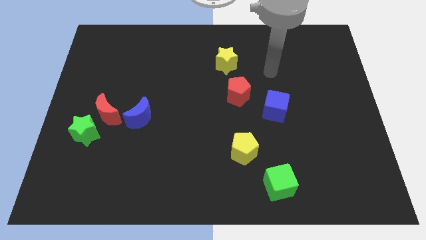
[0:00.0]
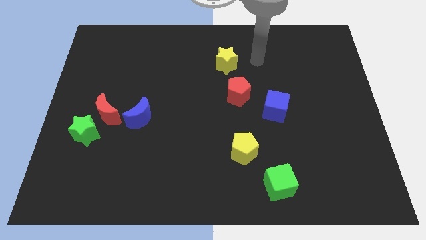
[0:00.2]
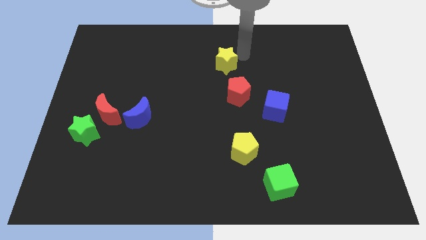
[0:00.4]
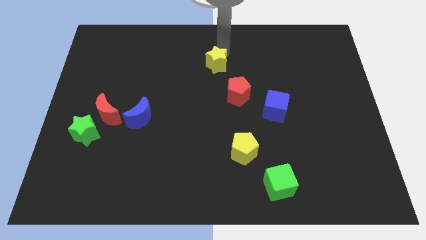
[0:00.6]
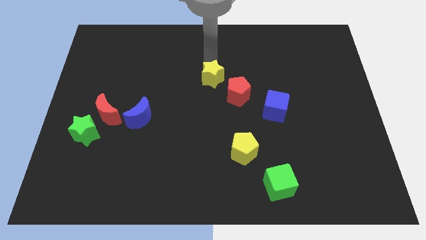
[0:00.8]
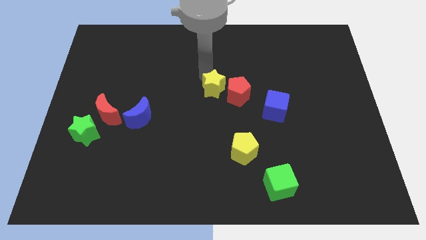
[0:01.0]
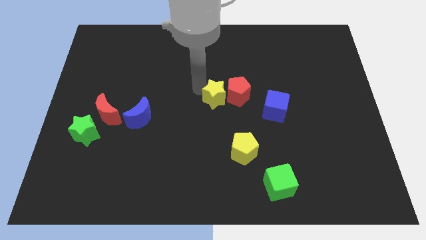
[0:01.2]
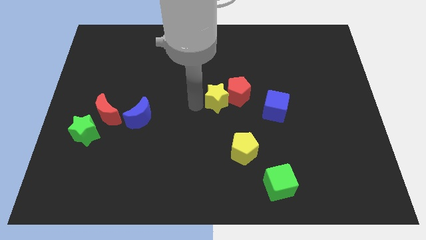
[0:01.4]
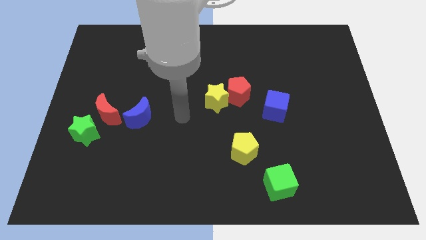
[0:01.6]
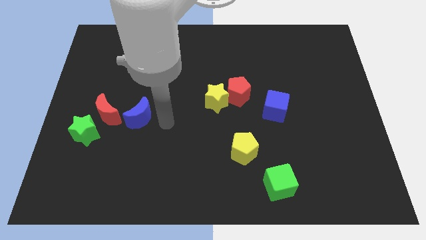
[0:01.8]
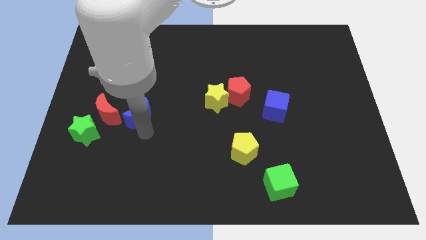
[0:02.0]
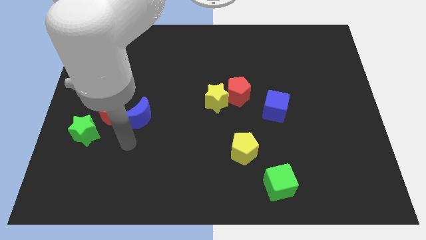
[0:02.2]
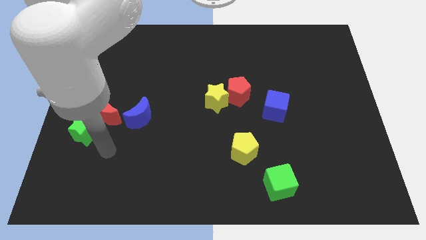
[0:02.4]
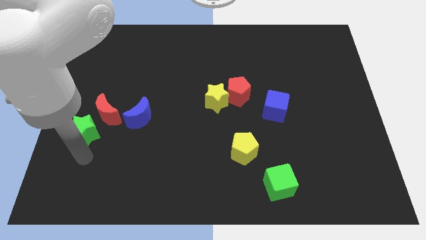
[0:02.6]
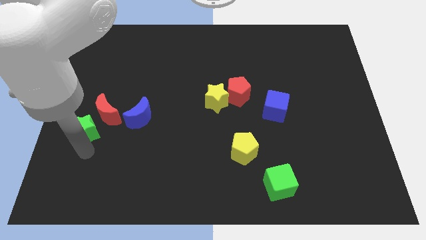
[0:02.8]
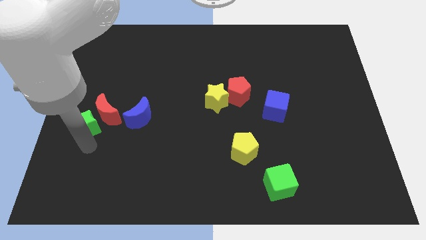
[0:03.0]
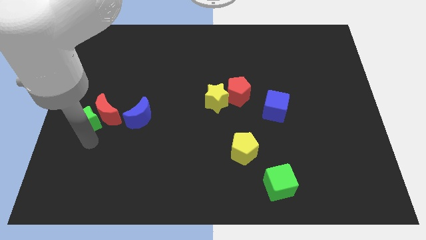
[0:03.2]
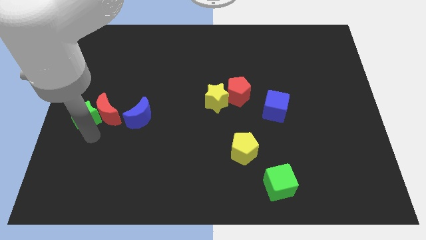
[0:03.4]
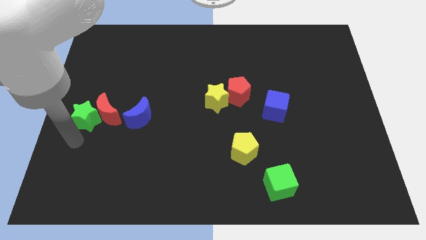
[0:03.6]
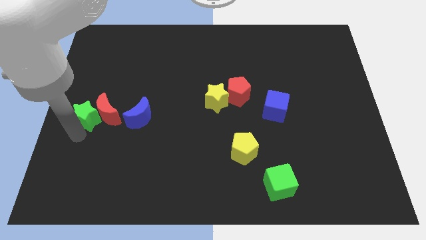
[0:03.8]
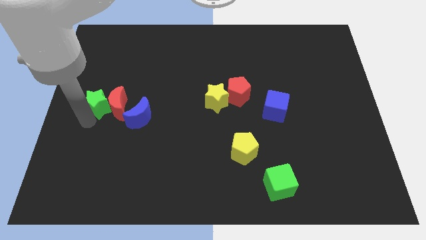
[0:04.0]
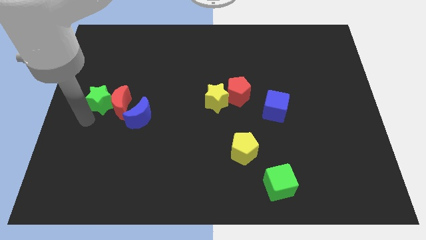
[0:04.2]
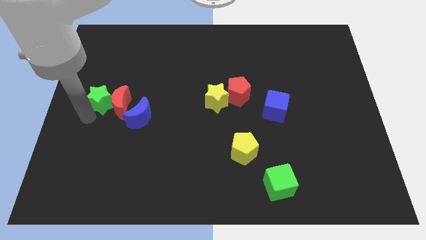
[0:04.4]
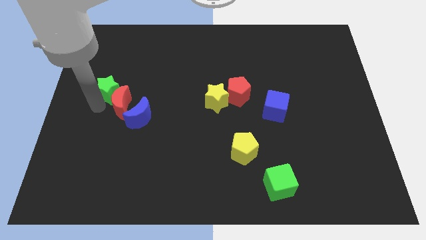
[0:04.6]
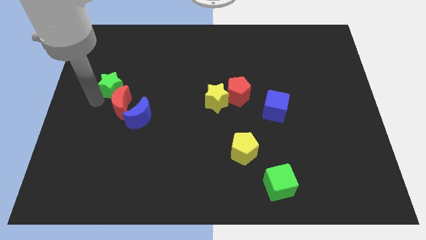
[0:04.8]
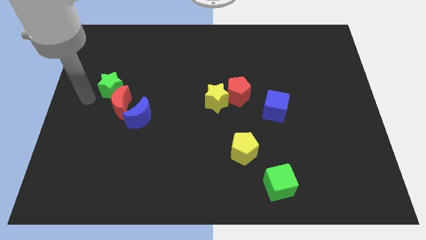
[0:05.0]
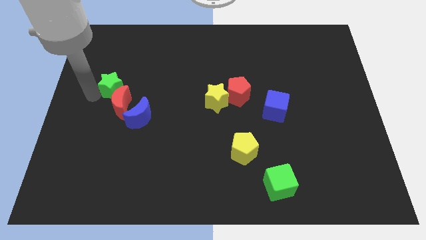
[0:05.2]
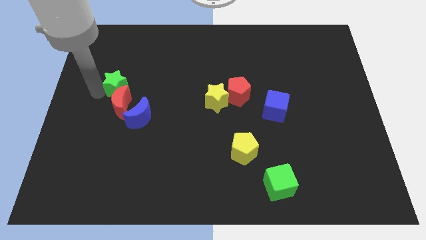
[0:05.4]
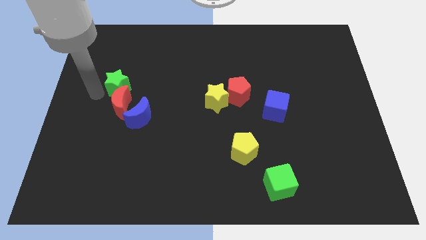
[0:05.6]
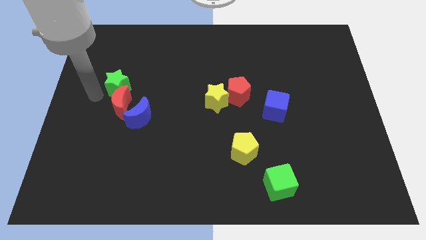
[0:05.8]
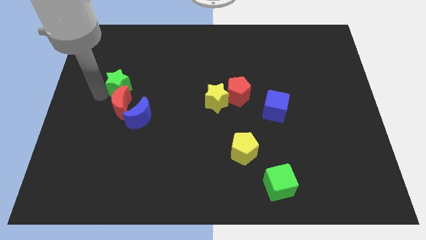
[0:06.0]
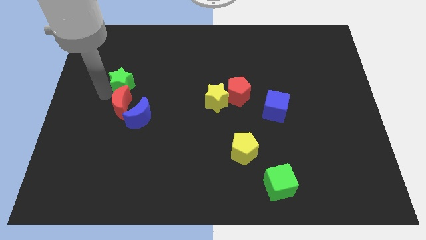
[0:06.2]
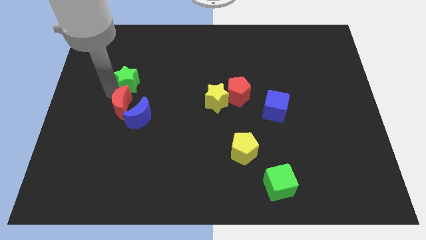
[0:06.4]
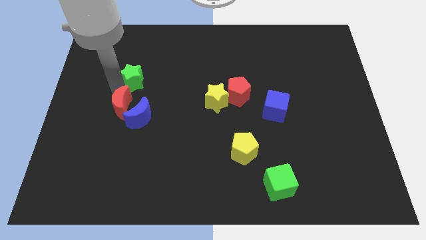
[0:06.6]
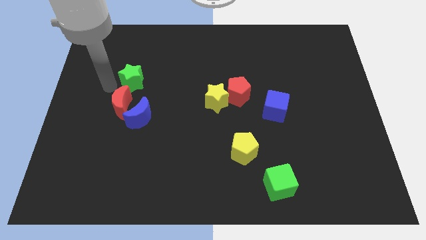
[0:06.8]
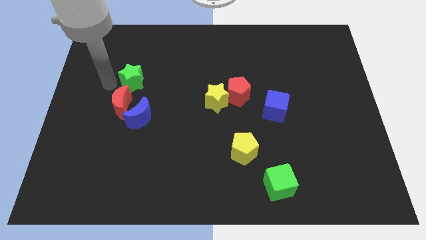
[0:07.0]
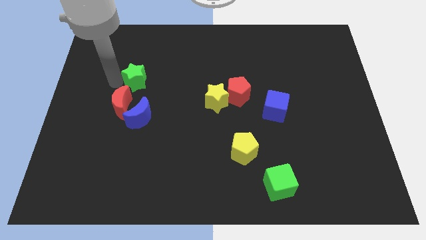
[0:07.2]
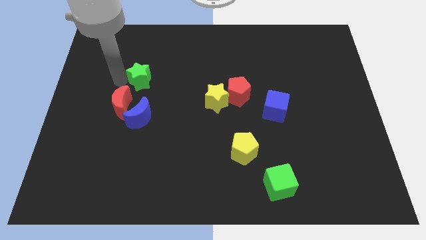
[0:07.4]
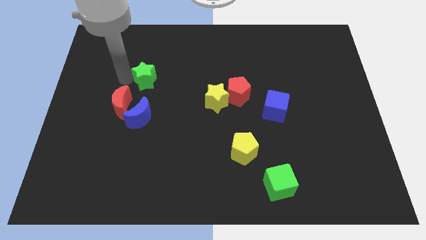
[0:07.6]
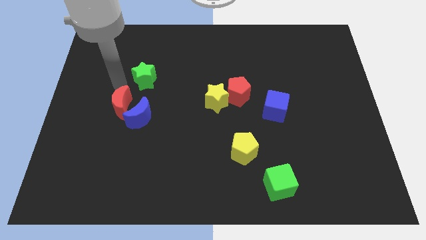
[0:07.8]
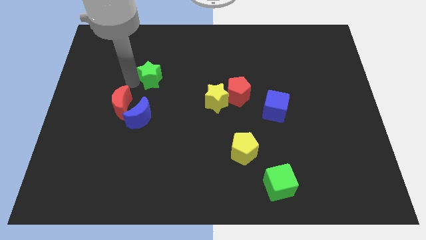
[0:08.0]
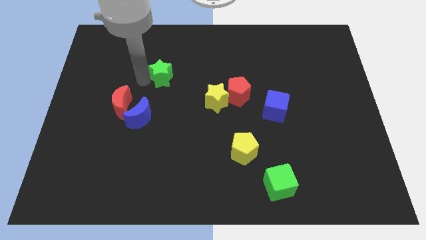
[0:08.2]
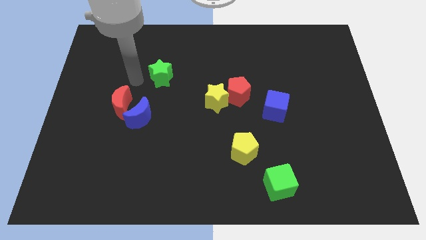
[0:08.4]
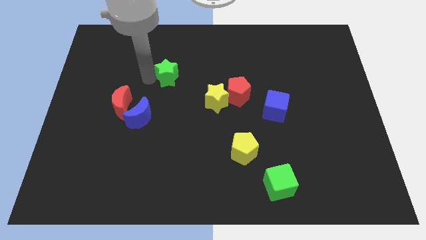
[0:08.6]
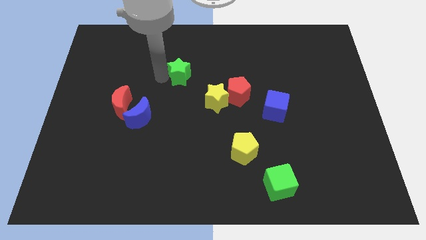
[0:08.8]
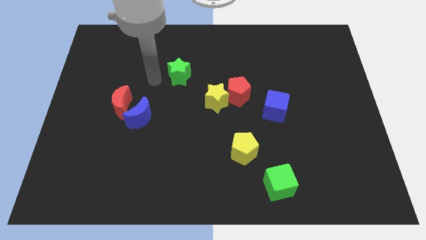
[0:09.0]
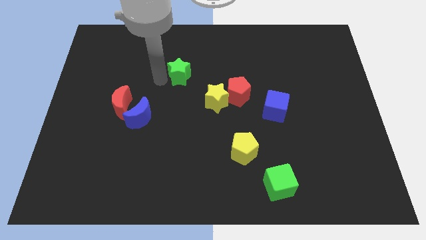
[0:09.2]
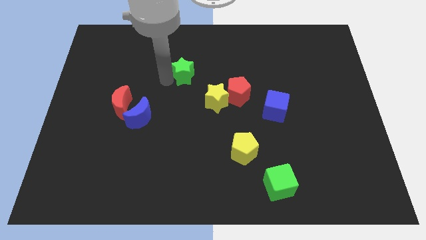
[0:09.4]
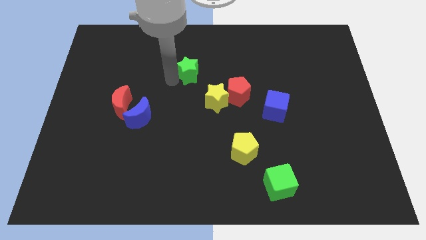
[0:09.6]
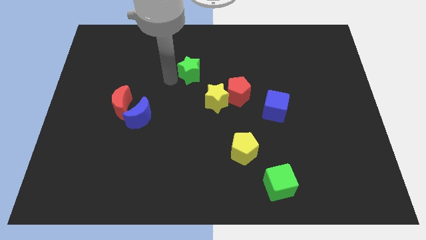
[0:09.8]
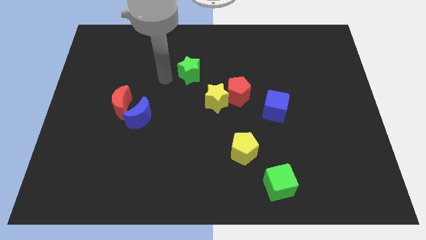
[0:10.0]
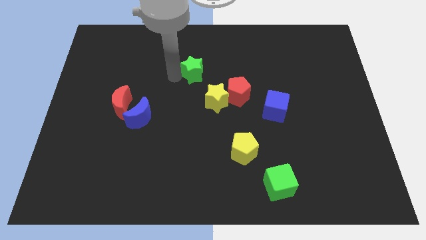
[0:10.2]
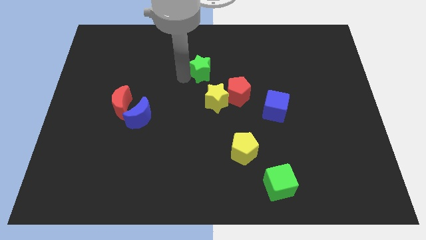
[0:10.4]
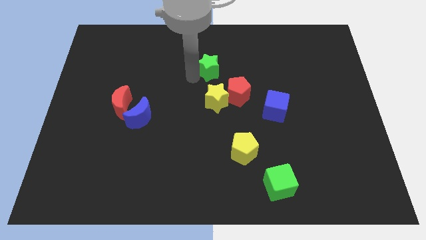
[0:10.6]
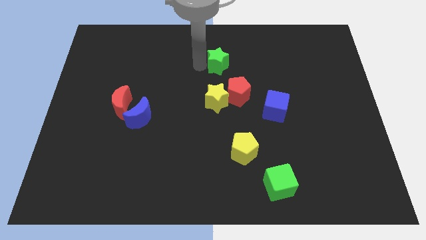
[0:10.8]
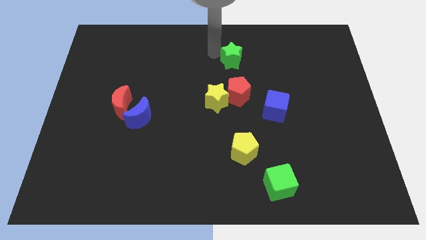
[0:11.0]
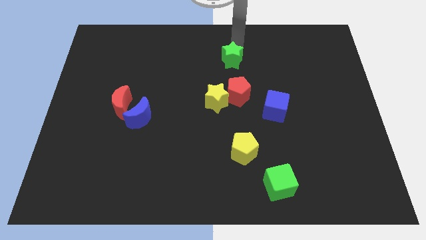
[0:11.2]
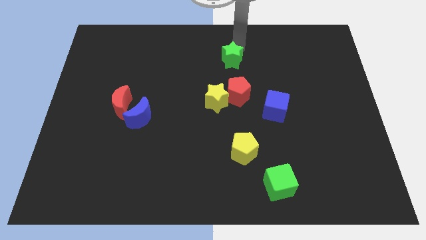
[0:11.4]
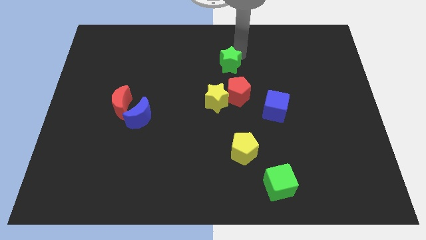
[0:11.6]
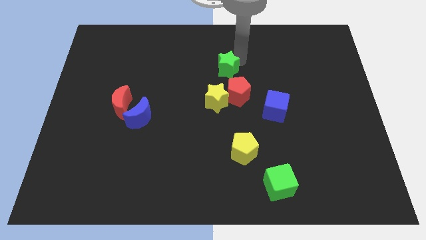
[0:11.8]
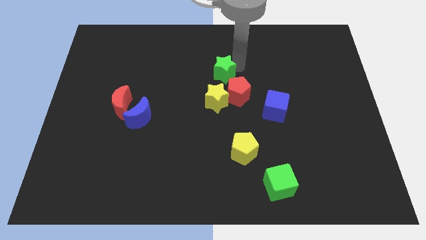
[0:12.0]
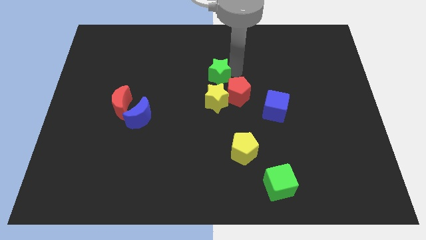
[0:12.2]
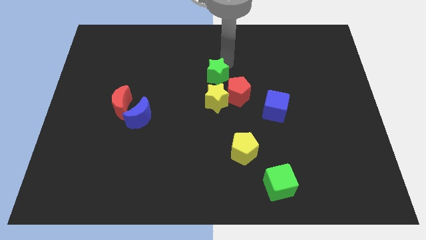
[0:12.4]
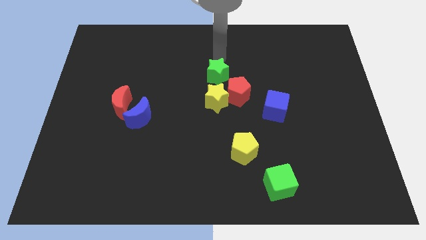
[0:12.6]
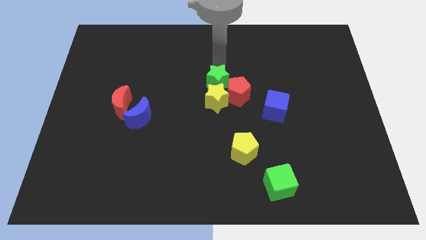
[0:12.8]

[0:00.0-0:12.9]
put the green star to the yellow star
